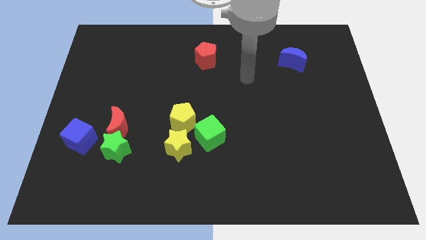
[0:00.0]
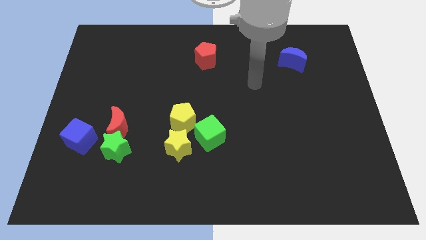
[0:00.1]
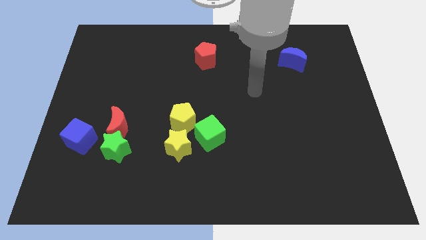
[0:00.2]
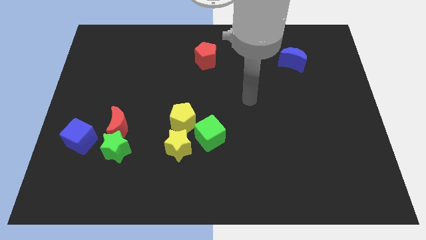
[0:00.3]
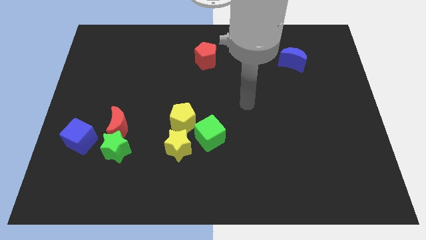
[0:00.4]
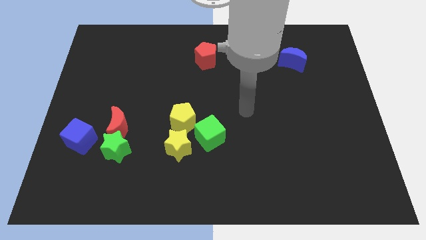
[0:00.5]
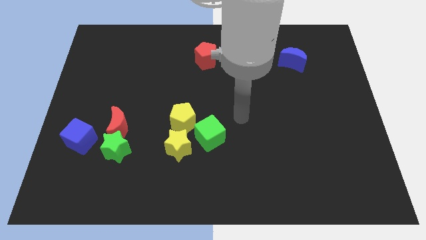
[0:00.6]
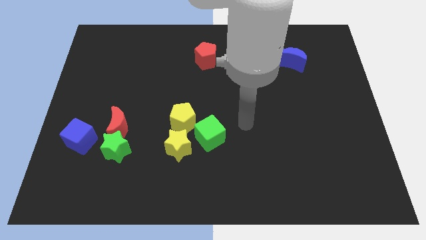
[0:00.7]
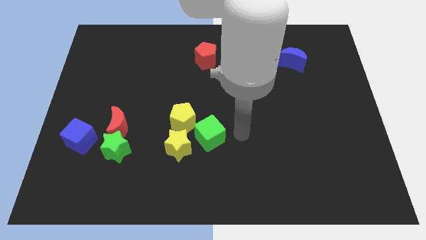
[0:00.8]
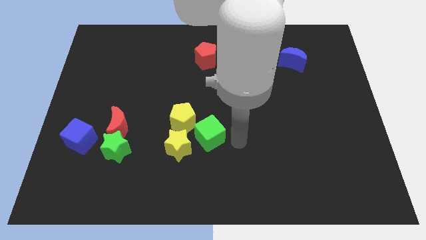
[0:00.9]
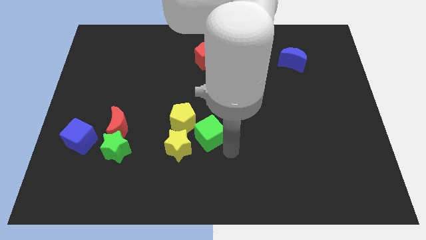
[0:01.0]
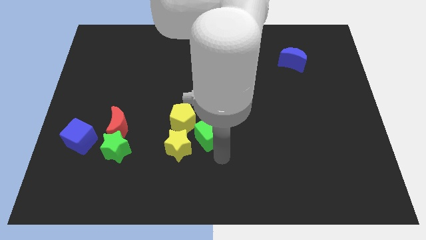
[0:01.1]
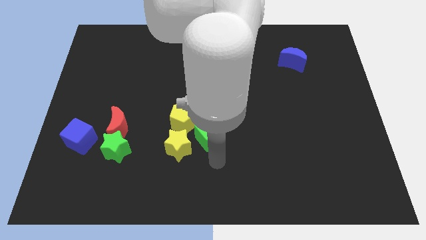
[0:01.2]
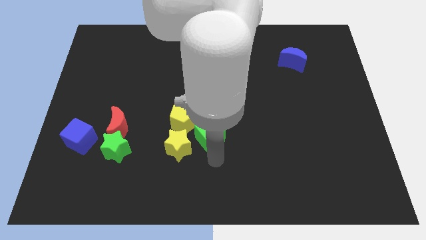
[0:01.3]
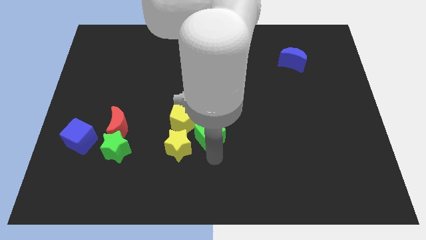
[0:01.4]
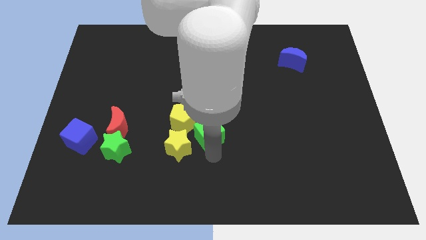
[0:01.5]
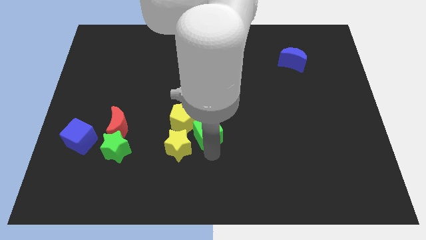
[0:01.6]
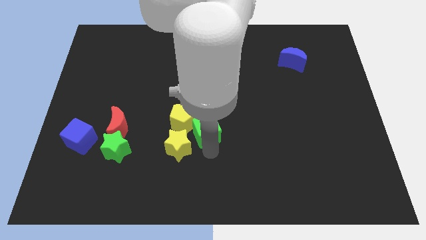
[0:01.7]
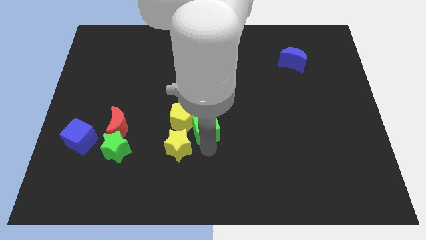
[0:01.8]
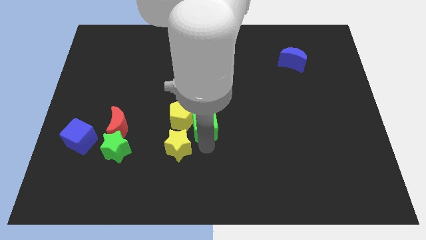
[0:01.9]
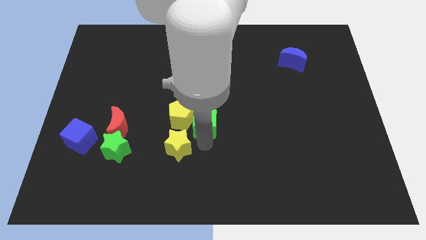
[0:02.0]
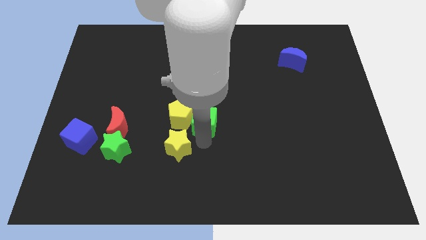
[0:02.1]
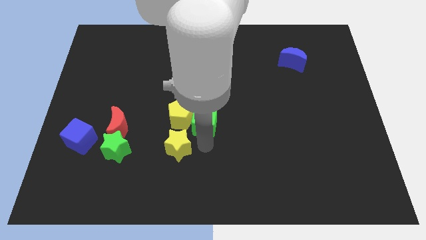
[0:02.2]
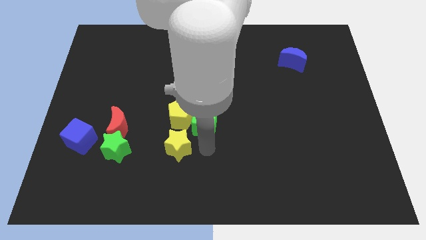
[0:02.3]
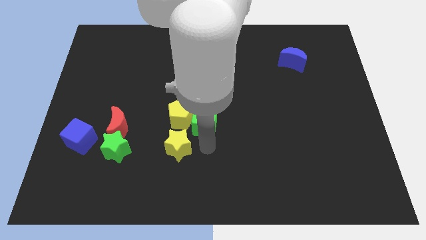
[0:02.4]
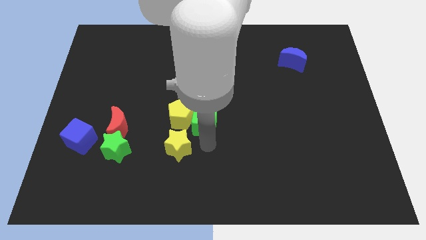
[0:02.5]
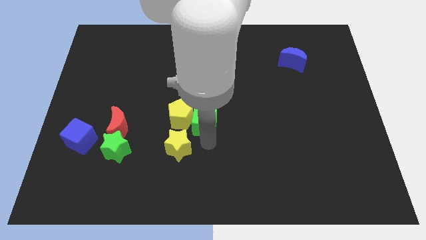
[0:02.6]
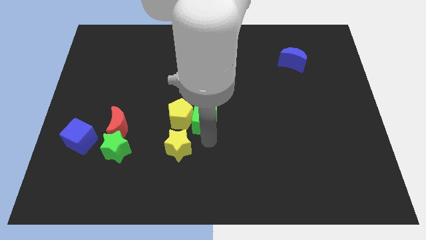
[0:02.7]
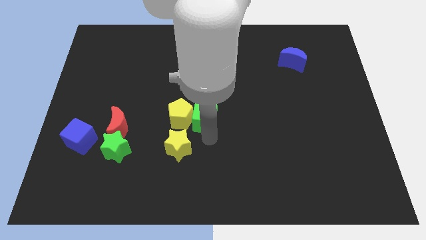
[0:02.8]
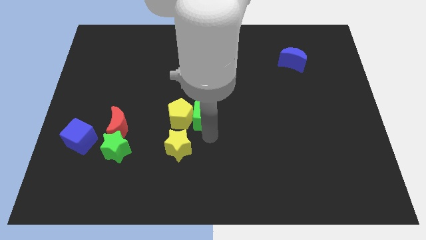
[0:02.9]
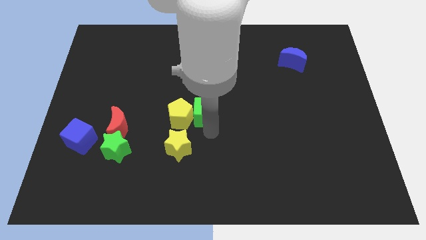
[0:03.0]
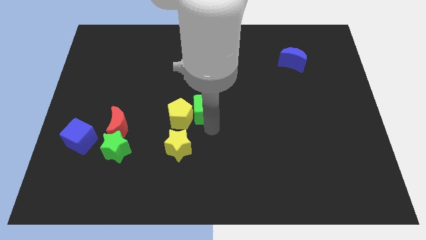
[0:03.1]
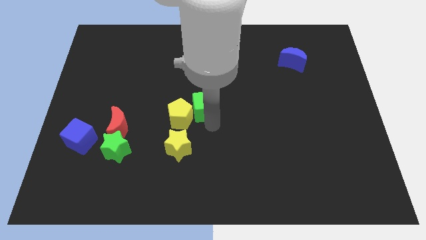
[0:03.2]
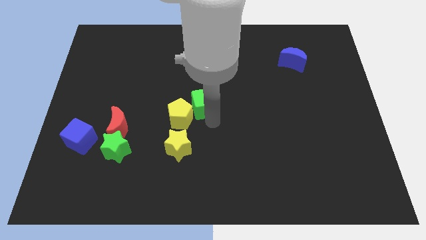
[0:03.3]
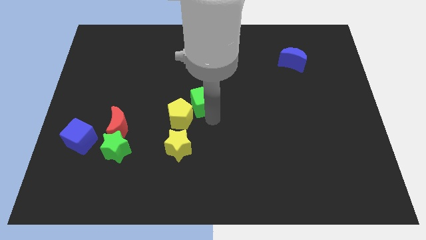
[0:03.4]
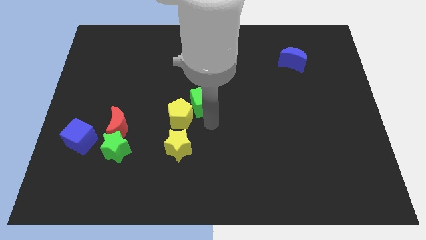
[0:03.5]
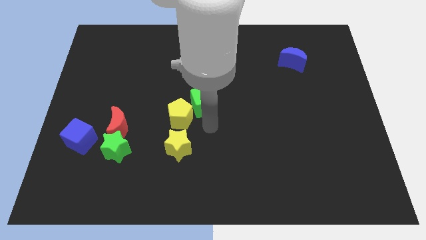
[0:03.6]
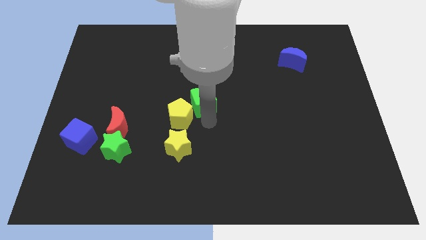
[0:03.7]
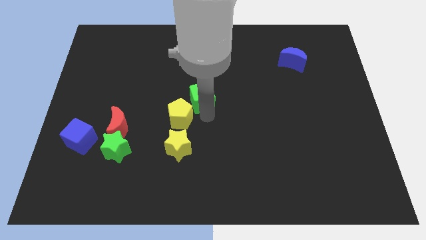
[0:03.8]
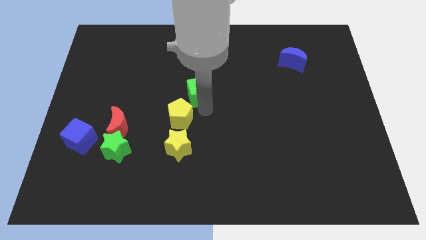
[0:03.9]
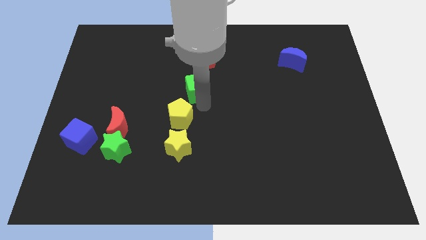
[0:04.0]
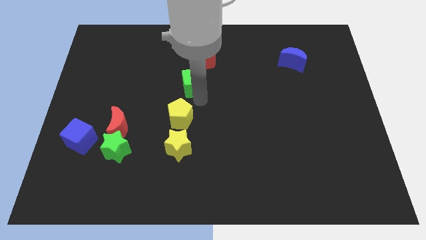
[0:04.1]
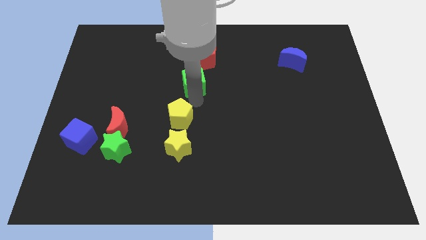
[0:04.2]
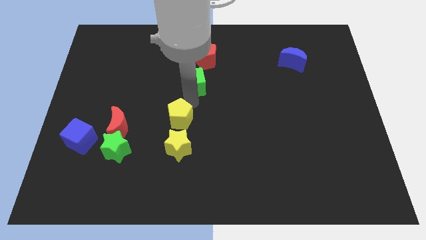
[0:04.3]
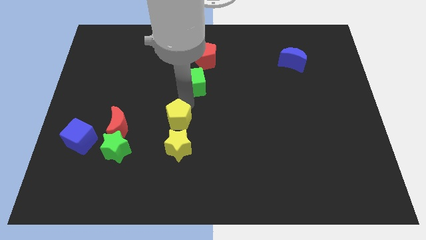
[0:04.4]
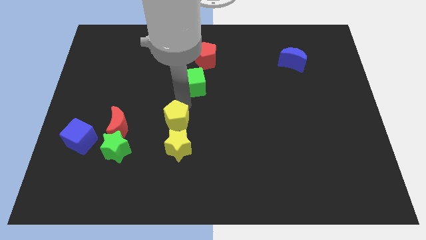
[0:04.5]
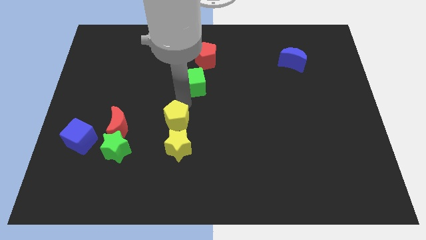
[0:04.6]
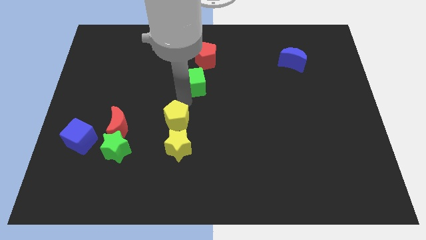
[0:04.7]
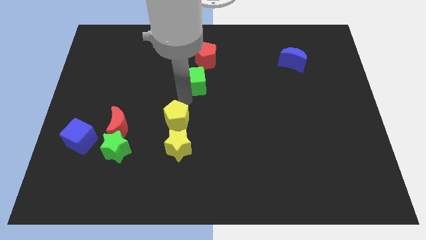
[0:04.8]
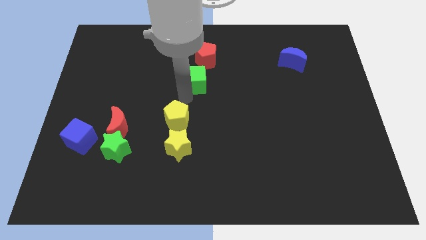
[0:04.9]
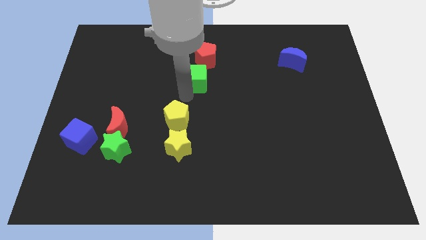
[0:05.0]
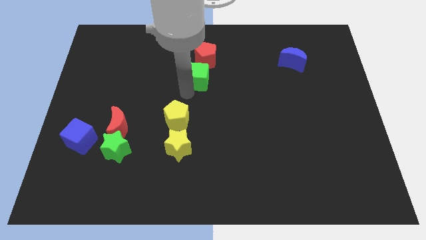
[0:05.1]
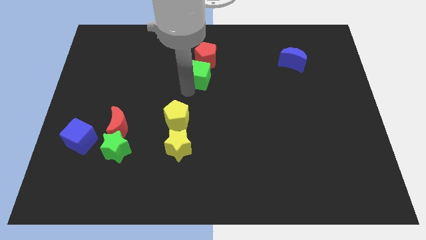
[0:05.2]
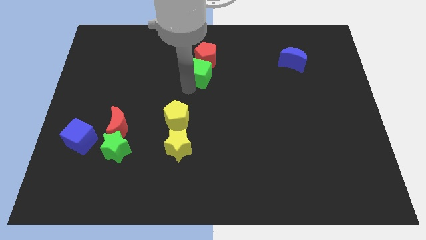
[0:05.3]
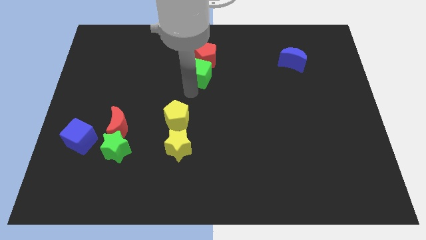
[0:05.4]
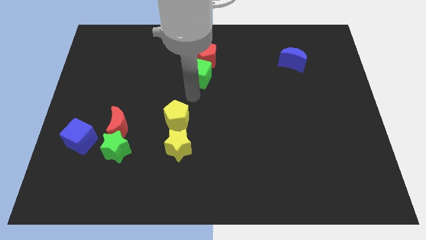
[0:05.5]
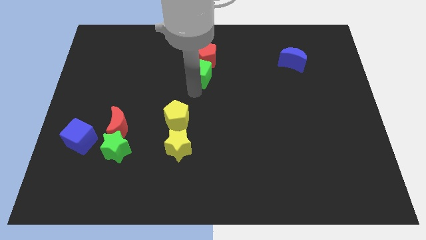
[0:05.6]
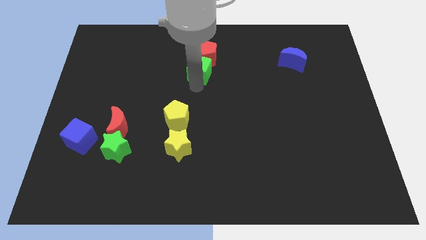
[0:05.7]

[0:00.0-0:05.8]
move the green cube next to the red pentagon

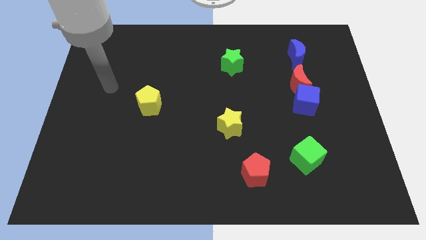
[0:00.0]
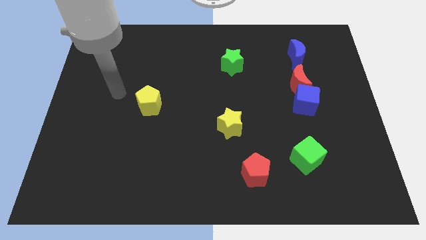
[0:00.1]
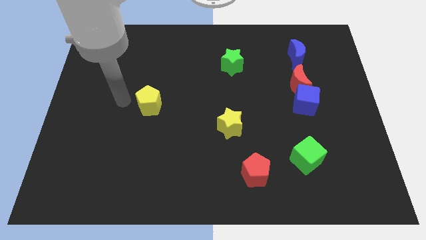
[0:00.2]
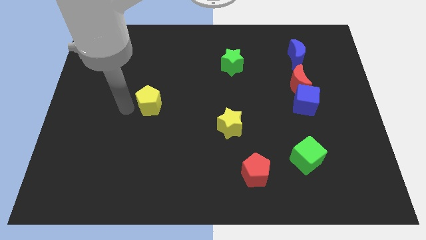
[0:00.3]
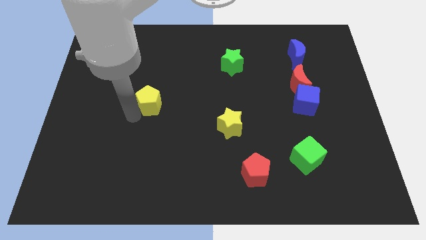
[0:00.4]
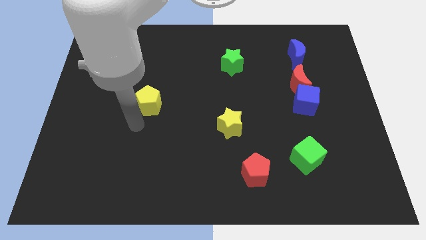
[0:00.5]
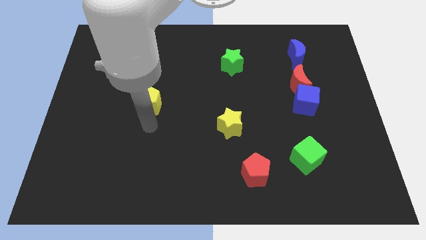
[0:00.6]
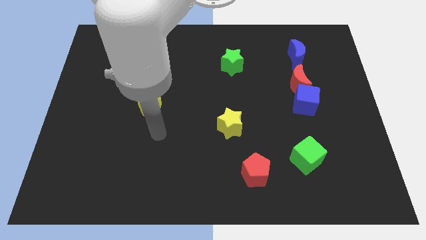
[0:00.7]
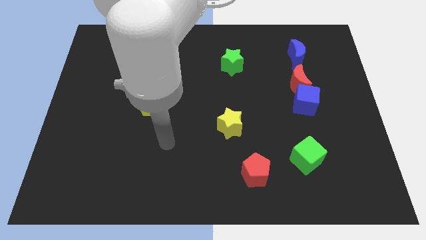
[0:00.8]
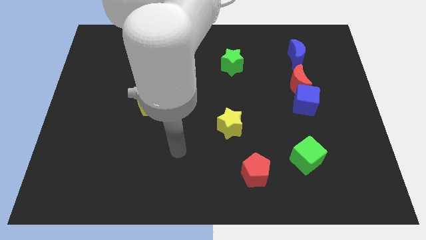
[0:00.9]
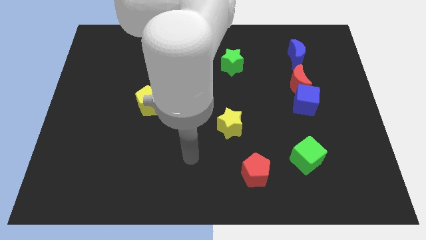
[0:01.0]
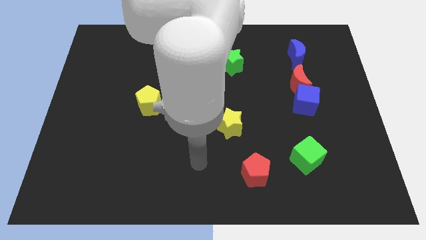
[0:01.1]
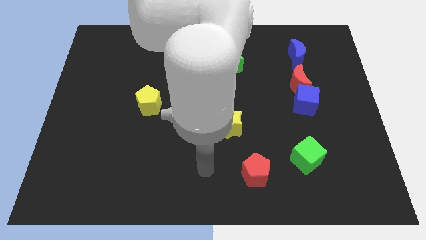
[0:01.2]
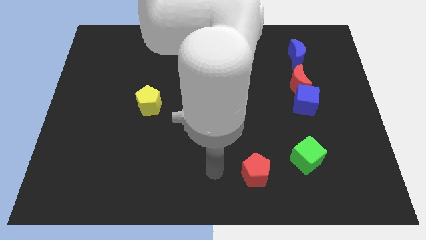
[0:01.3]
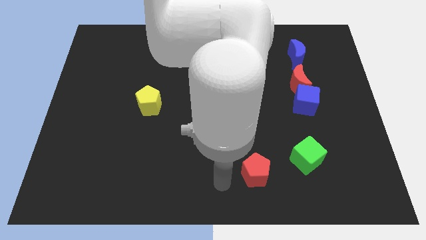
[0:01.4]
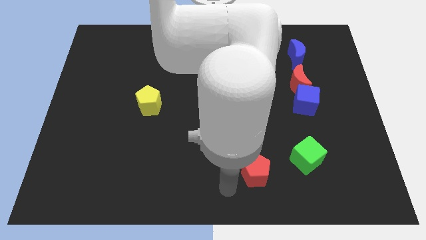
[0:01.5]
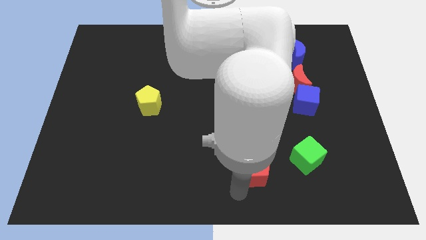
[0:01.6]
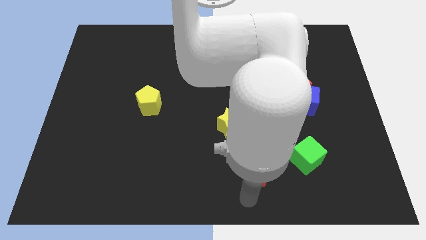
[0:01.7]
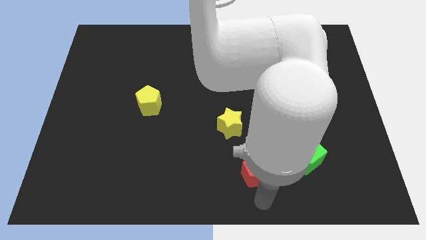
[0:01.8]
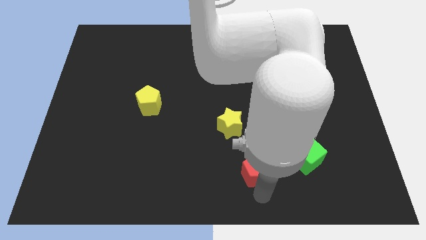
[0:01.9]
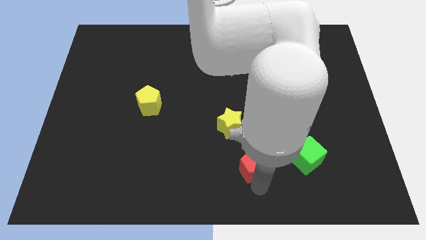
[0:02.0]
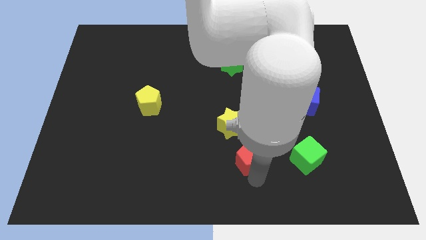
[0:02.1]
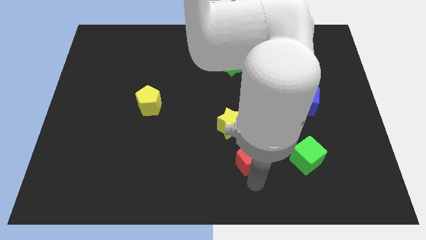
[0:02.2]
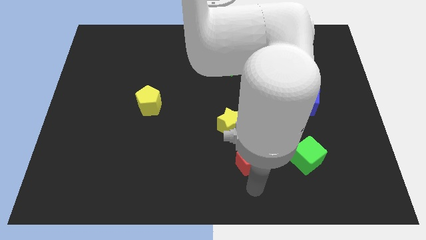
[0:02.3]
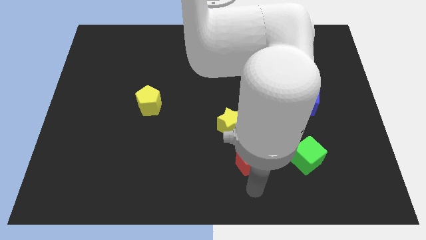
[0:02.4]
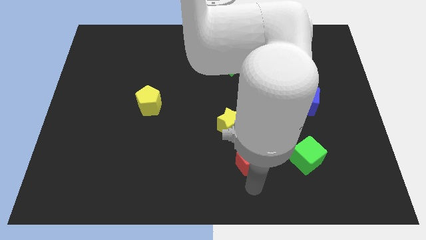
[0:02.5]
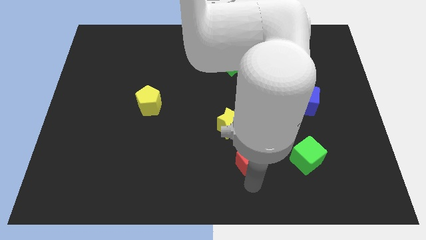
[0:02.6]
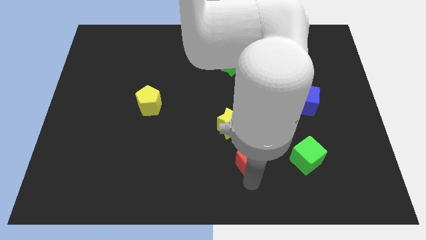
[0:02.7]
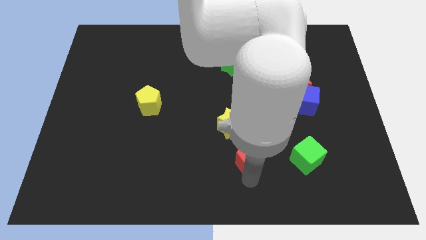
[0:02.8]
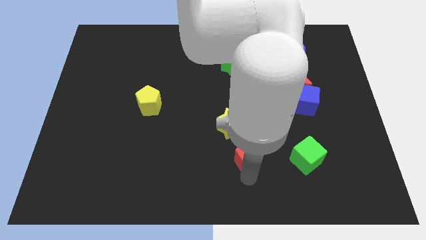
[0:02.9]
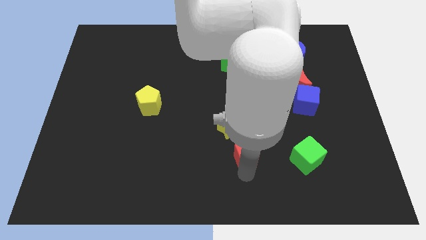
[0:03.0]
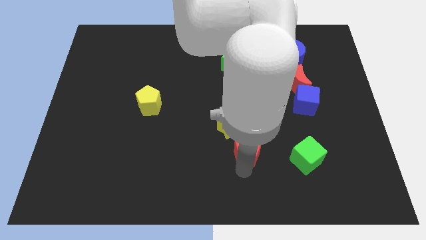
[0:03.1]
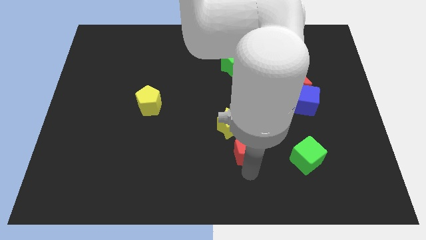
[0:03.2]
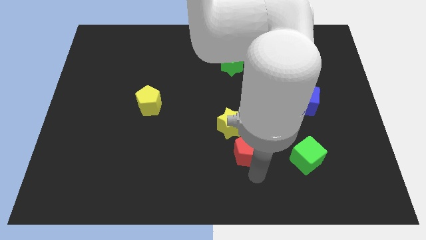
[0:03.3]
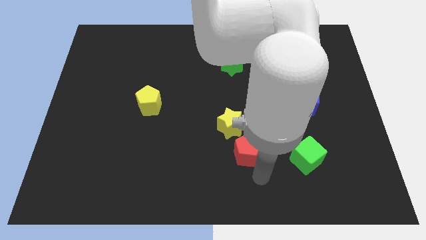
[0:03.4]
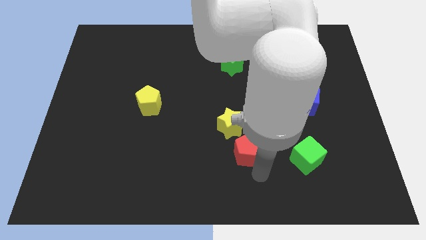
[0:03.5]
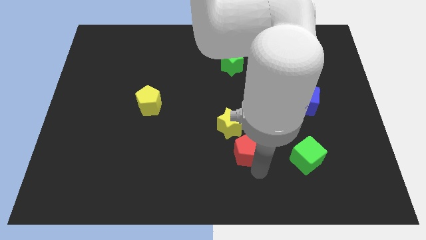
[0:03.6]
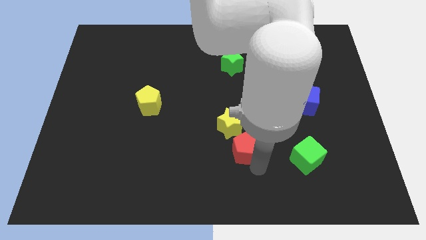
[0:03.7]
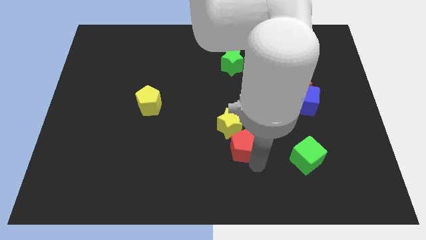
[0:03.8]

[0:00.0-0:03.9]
move the red pentagon towards the yellow star
